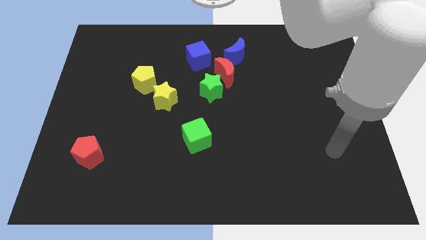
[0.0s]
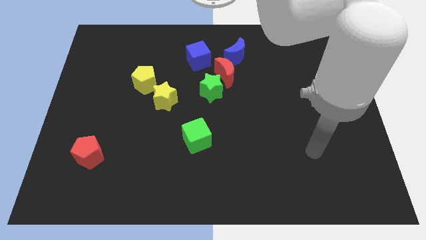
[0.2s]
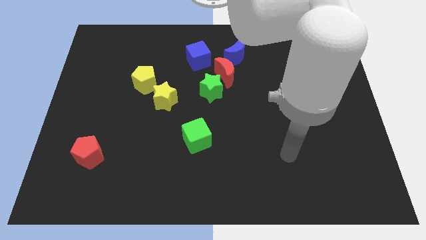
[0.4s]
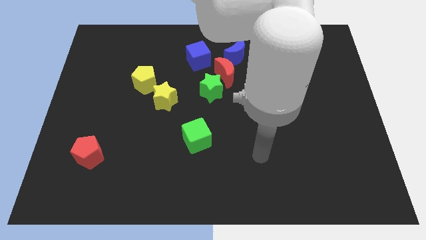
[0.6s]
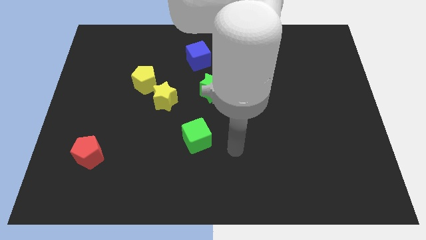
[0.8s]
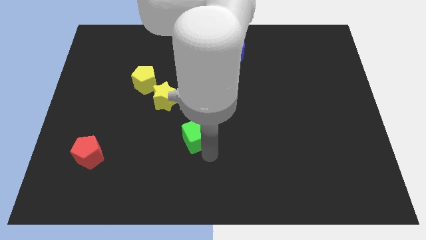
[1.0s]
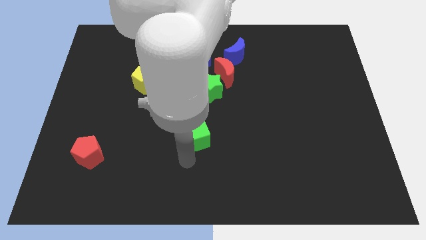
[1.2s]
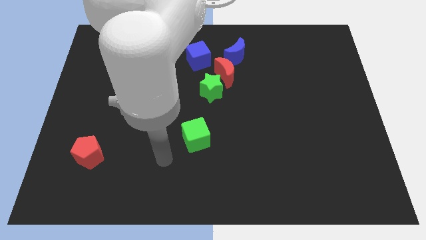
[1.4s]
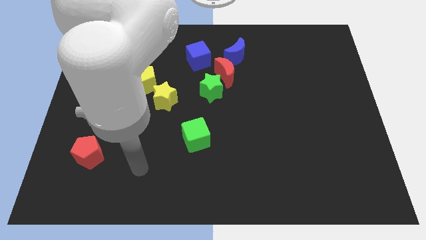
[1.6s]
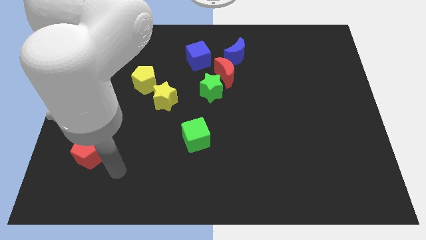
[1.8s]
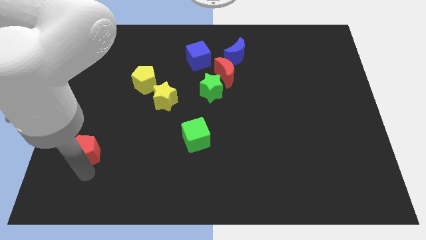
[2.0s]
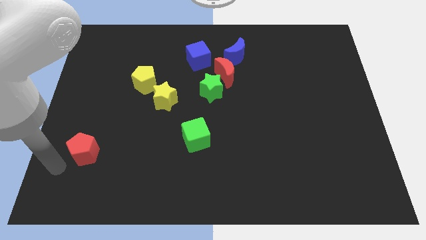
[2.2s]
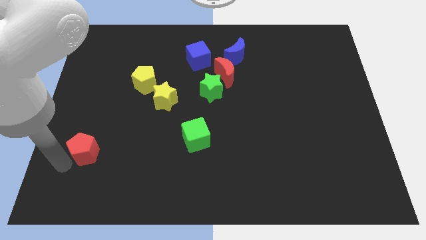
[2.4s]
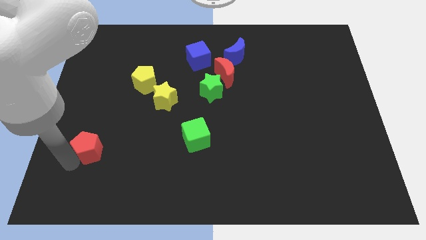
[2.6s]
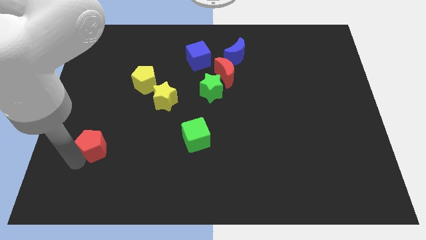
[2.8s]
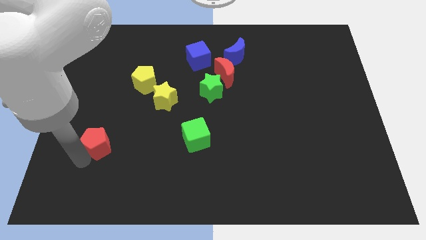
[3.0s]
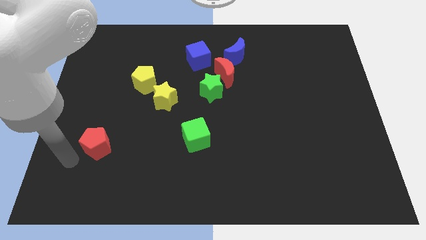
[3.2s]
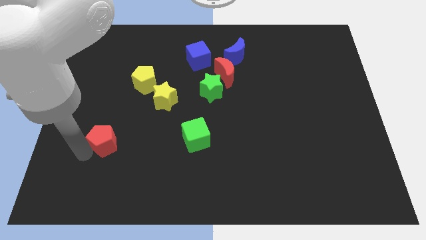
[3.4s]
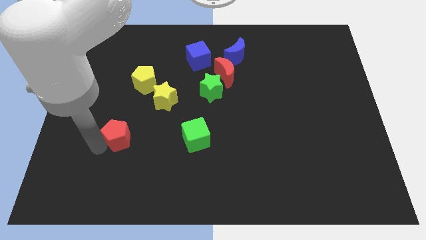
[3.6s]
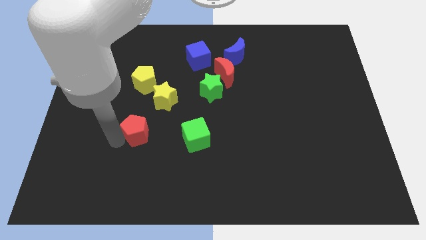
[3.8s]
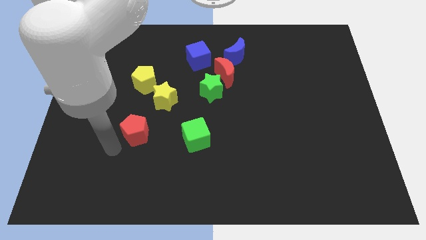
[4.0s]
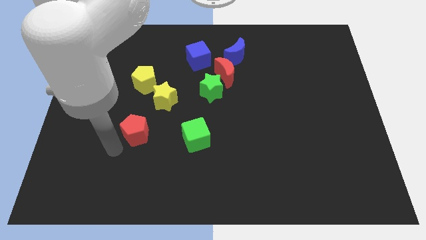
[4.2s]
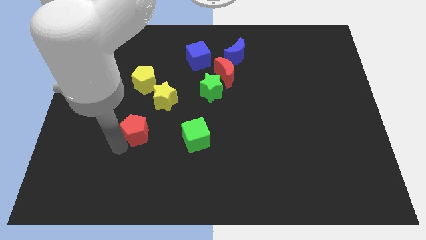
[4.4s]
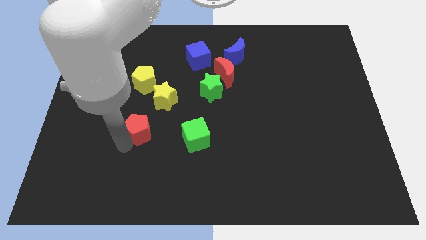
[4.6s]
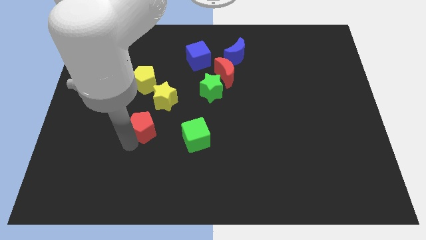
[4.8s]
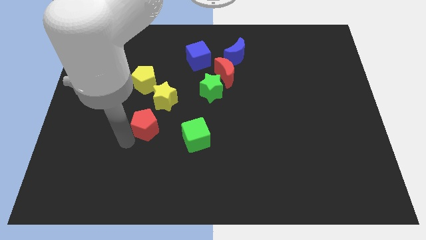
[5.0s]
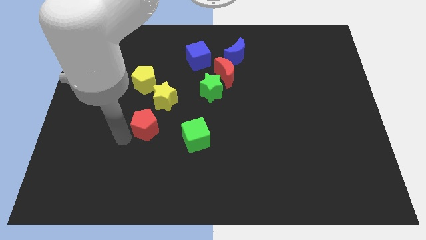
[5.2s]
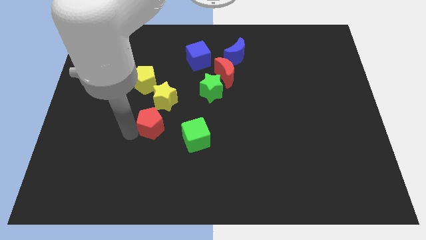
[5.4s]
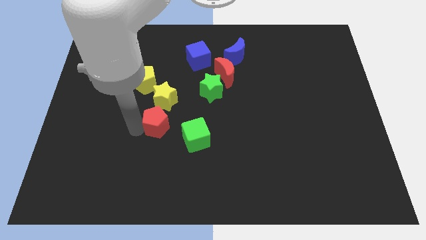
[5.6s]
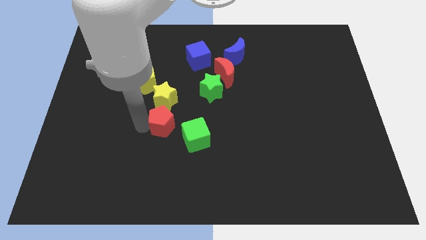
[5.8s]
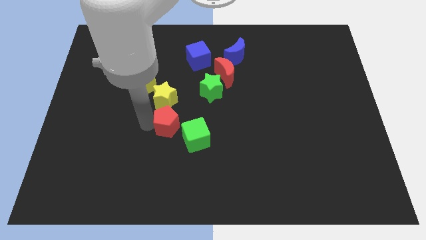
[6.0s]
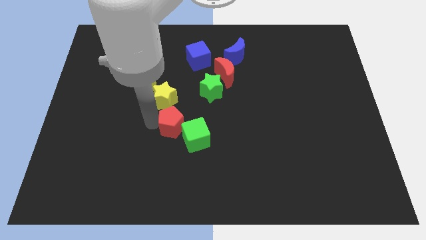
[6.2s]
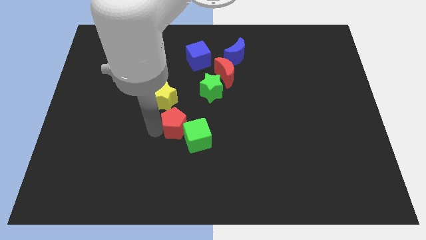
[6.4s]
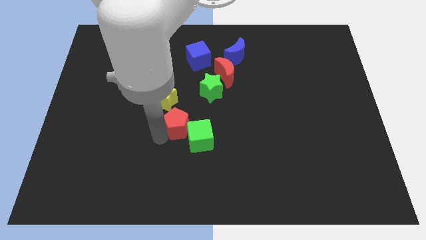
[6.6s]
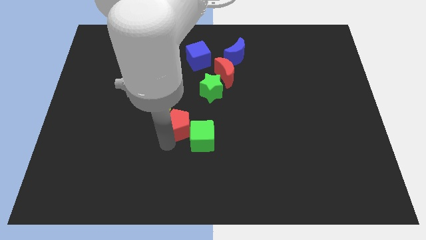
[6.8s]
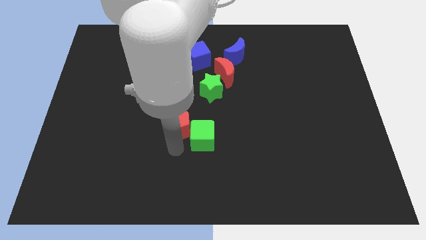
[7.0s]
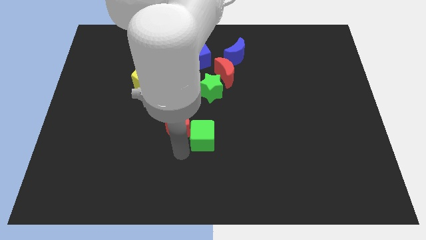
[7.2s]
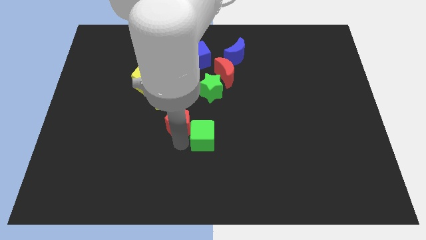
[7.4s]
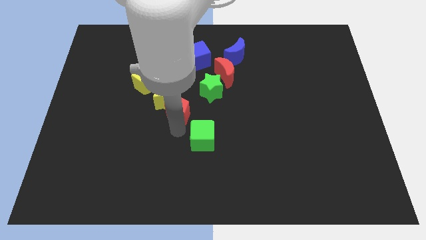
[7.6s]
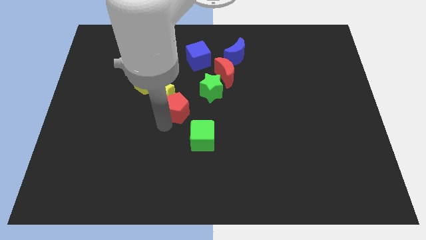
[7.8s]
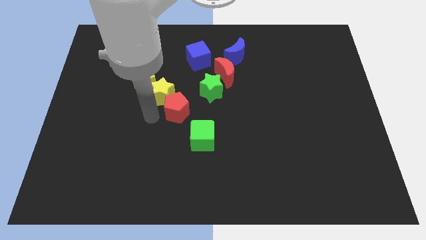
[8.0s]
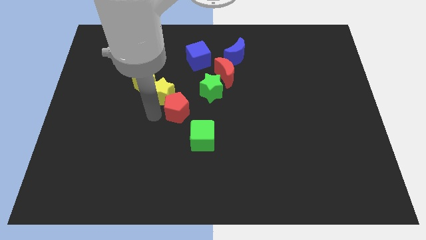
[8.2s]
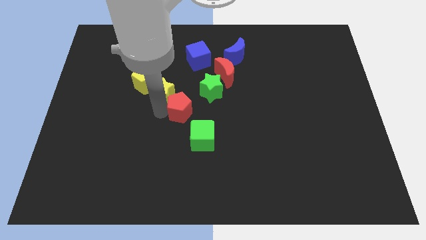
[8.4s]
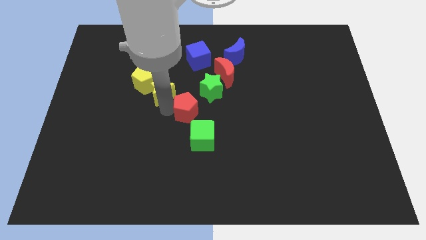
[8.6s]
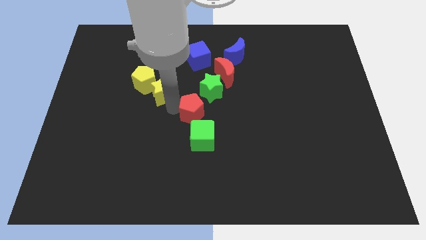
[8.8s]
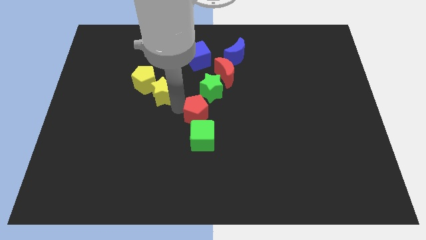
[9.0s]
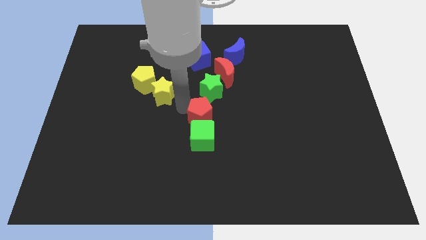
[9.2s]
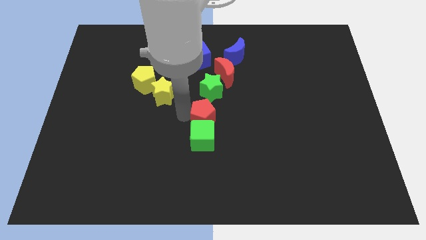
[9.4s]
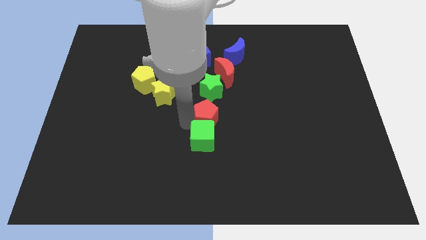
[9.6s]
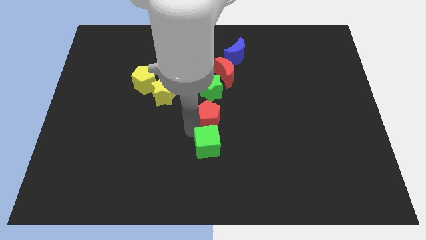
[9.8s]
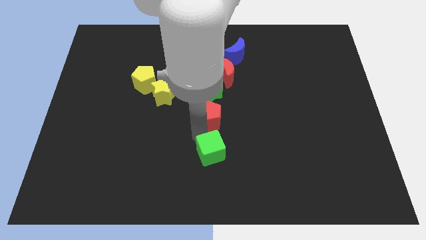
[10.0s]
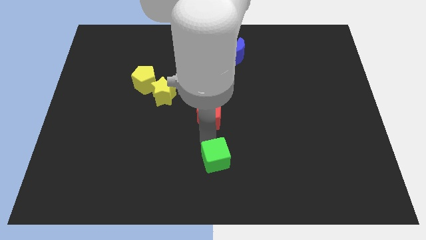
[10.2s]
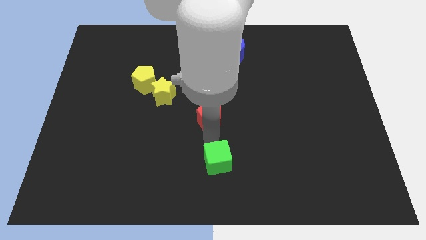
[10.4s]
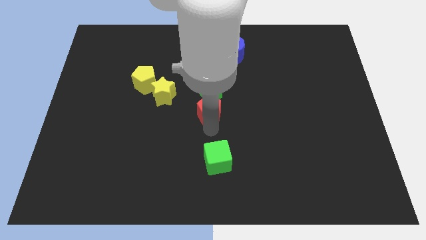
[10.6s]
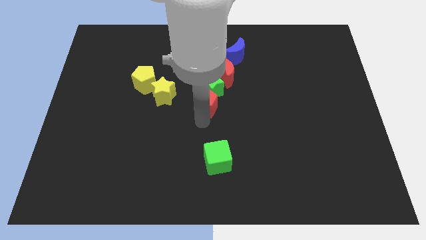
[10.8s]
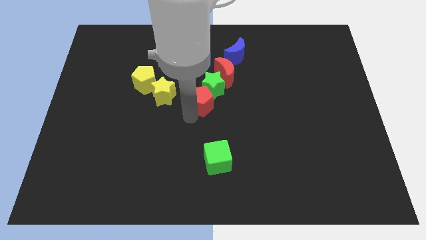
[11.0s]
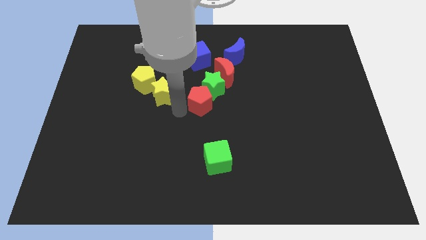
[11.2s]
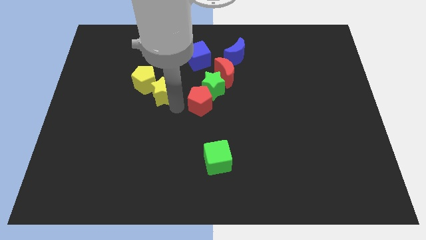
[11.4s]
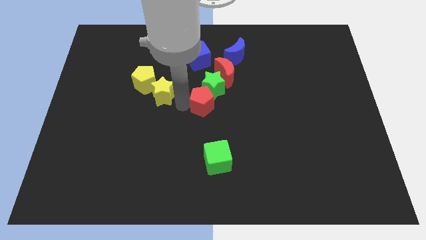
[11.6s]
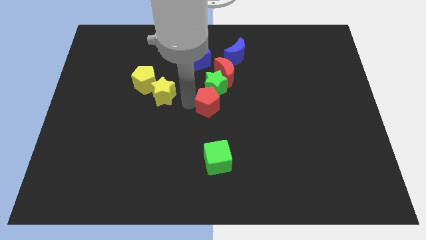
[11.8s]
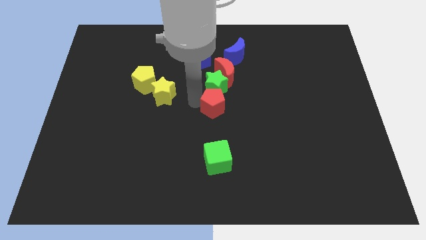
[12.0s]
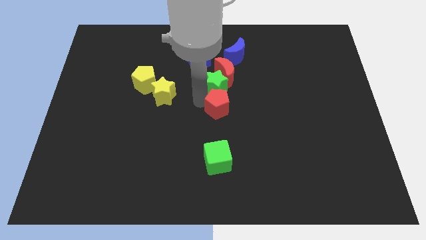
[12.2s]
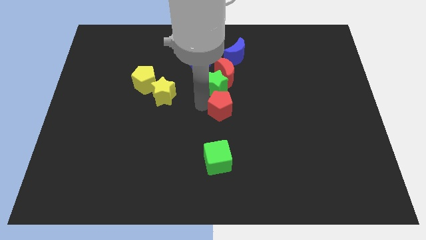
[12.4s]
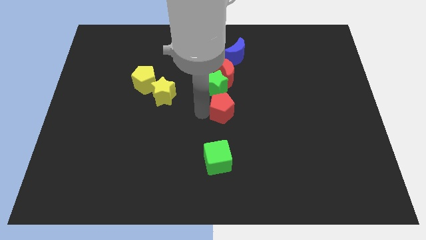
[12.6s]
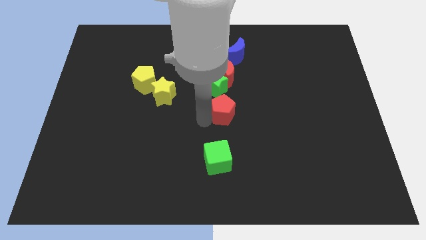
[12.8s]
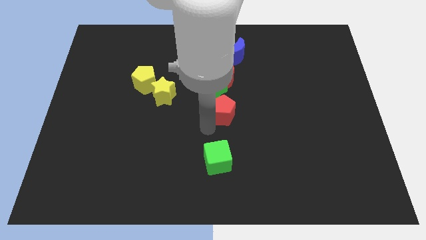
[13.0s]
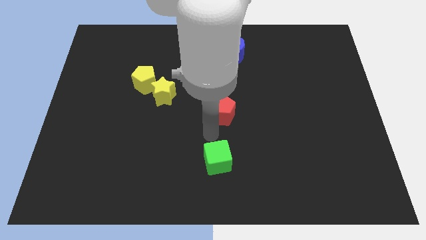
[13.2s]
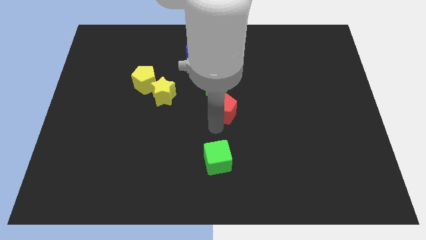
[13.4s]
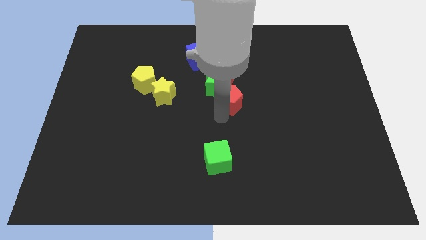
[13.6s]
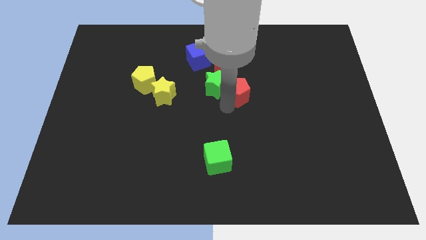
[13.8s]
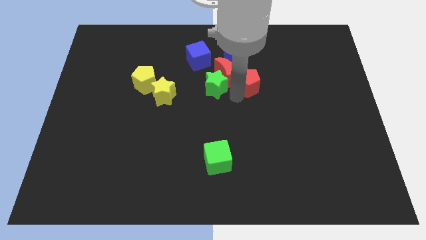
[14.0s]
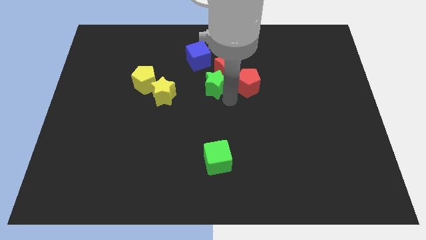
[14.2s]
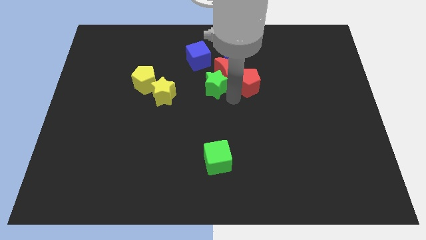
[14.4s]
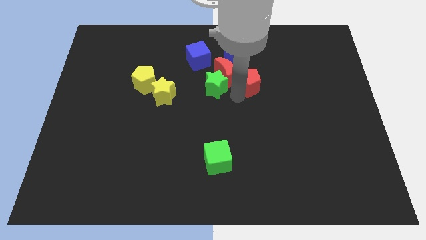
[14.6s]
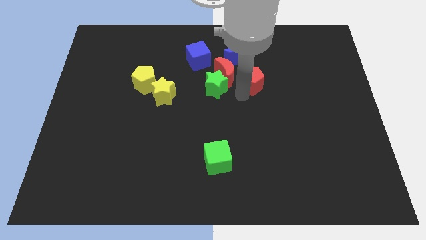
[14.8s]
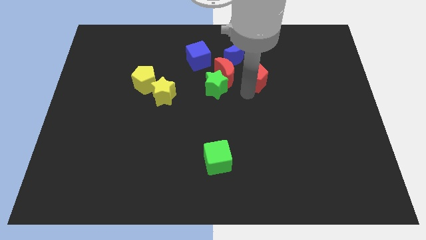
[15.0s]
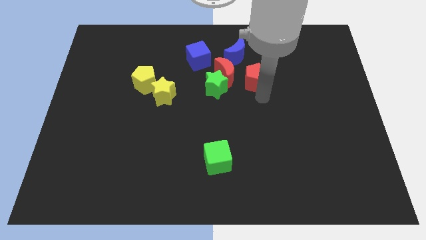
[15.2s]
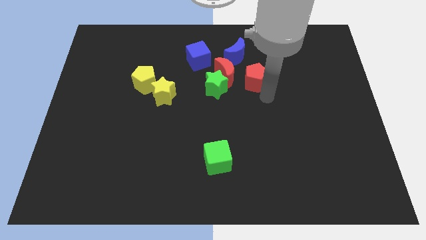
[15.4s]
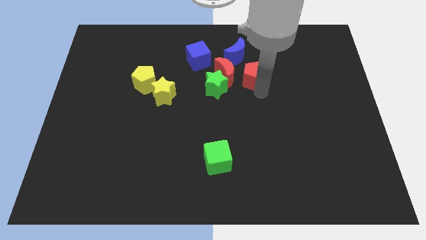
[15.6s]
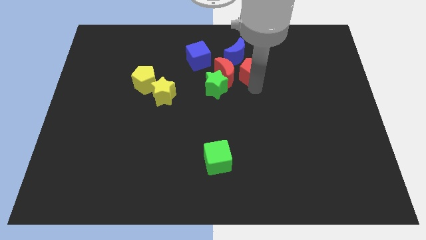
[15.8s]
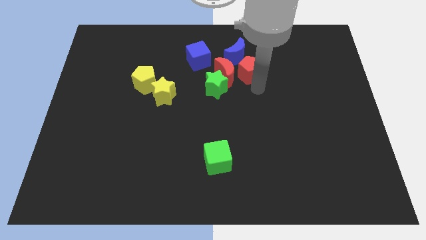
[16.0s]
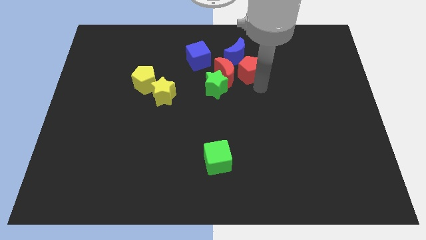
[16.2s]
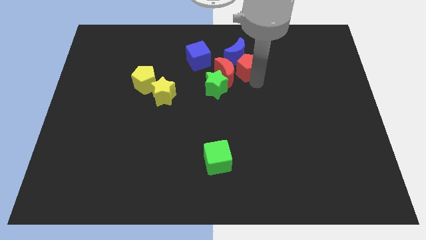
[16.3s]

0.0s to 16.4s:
move the red pentagon next to the blue moon
